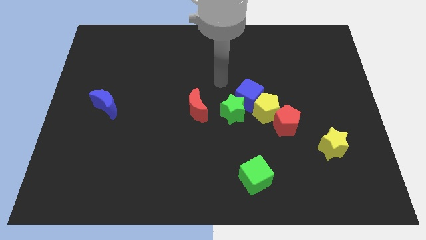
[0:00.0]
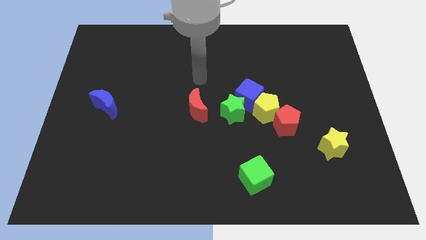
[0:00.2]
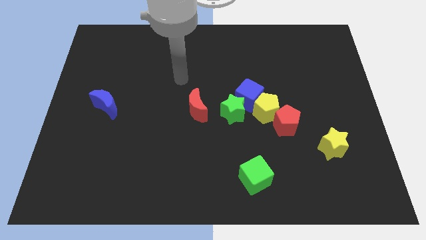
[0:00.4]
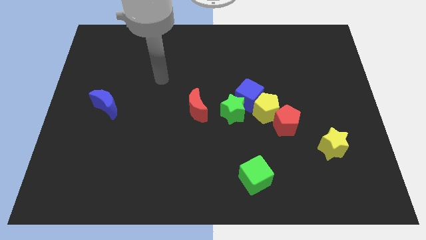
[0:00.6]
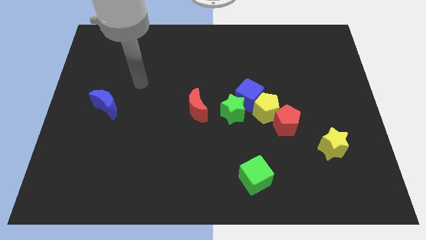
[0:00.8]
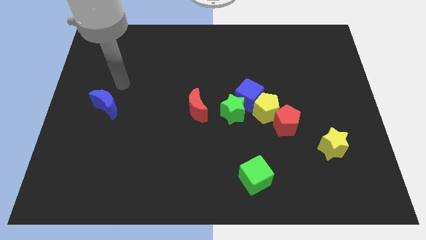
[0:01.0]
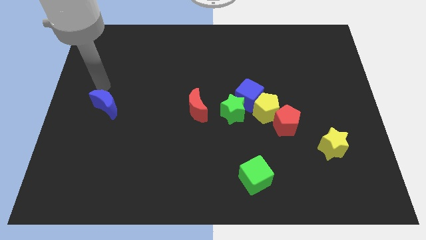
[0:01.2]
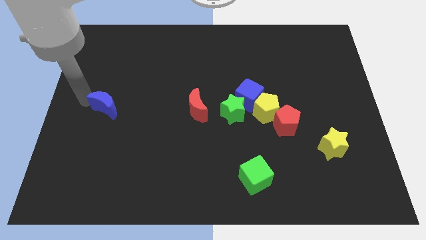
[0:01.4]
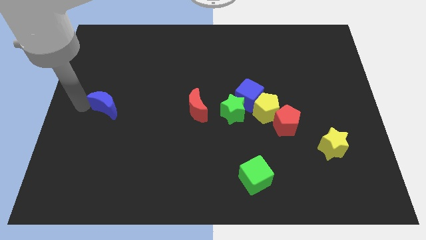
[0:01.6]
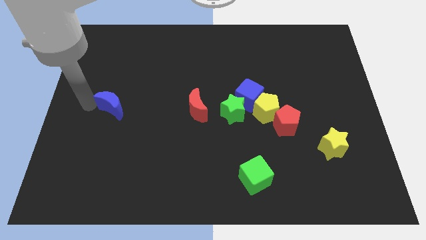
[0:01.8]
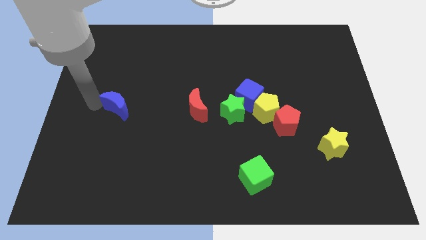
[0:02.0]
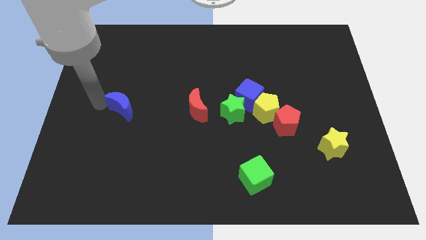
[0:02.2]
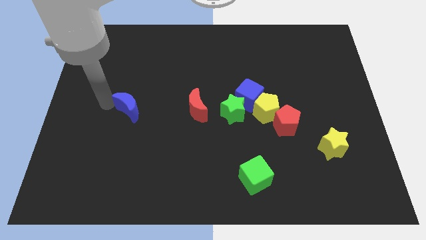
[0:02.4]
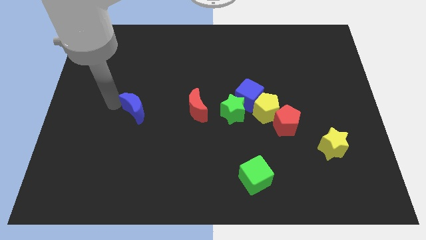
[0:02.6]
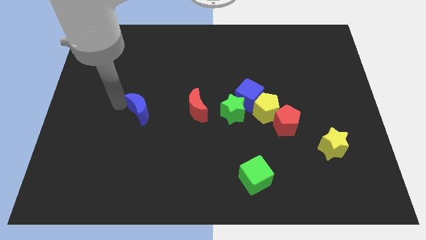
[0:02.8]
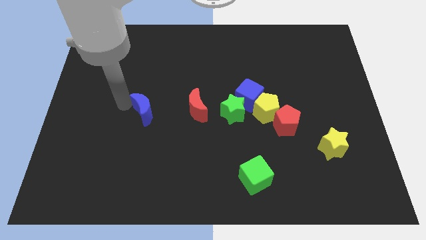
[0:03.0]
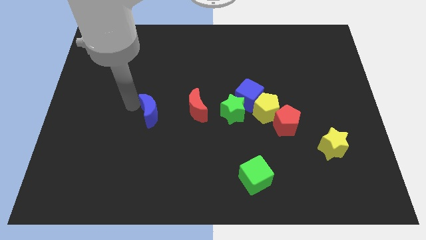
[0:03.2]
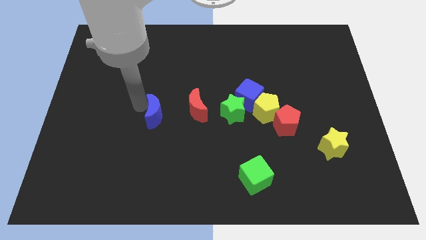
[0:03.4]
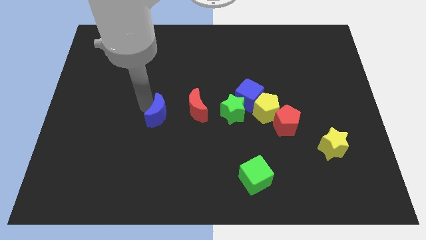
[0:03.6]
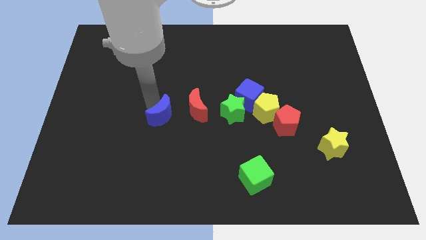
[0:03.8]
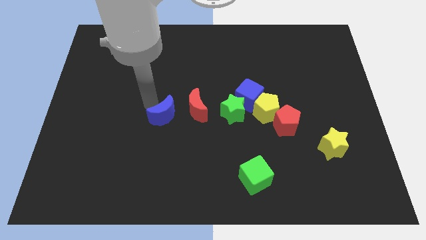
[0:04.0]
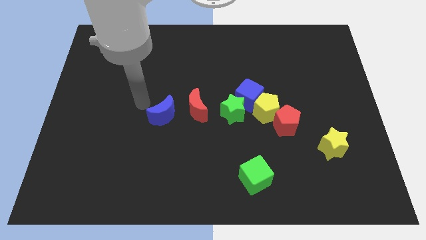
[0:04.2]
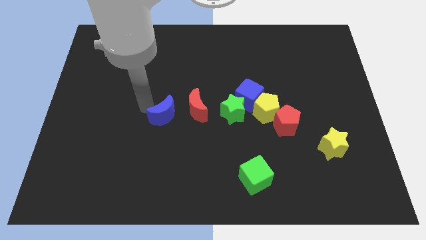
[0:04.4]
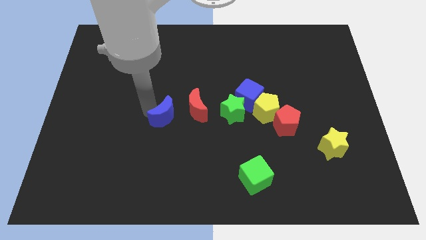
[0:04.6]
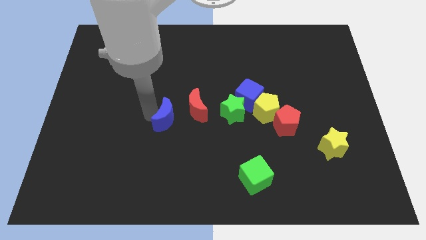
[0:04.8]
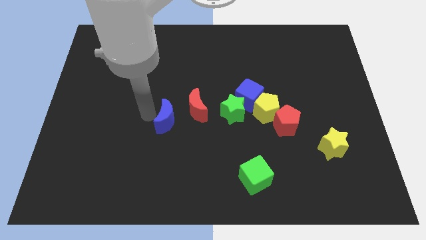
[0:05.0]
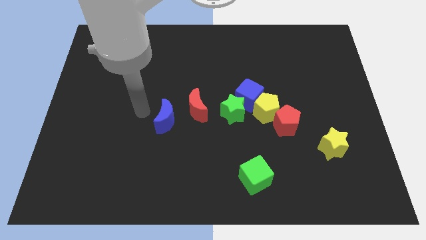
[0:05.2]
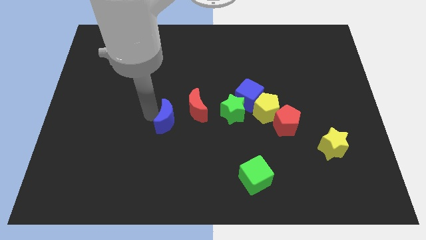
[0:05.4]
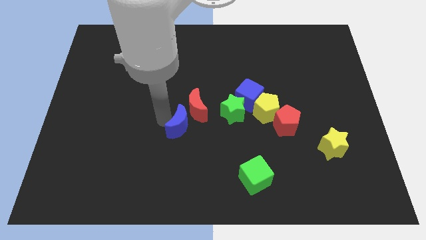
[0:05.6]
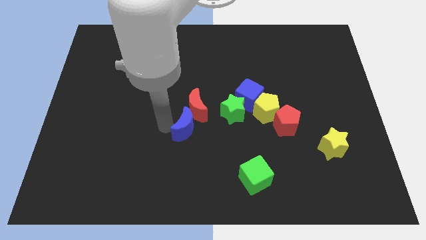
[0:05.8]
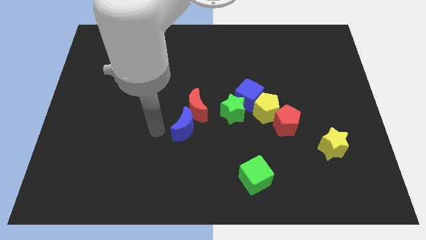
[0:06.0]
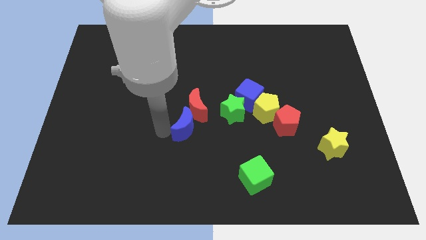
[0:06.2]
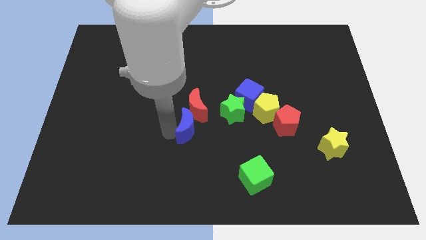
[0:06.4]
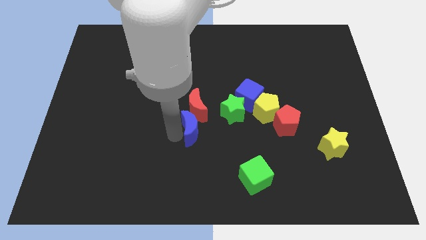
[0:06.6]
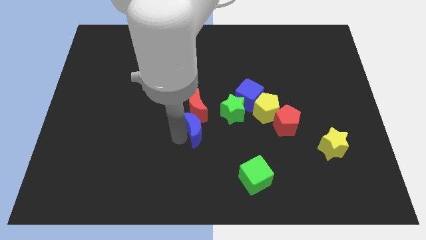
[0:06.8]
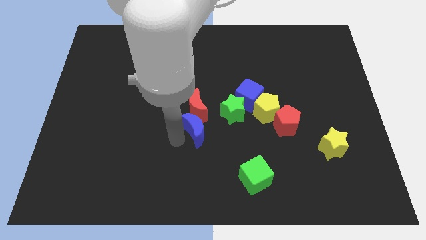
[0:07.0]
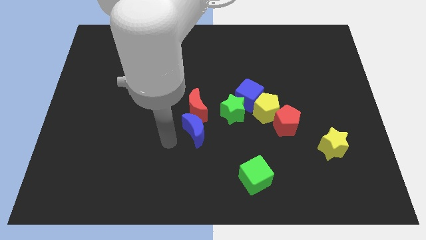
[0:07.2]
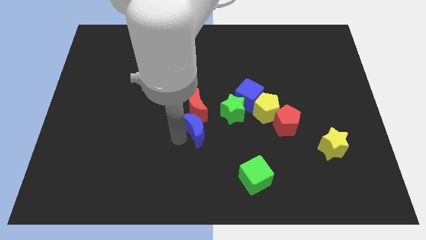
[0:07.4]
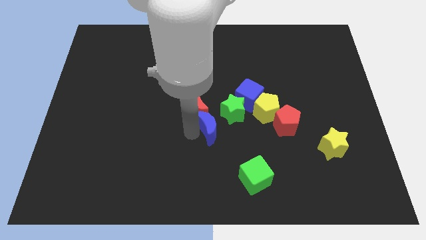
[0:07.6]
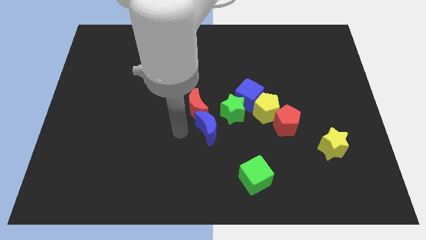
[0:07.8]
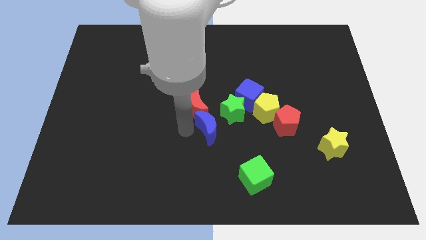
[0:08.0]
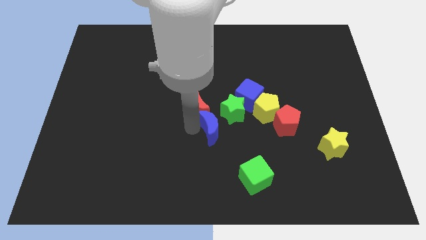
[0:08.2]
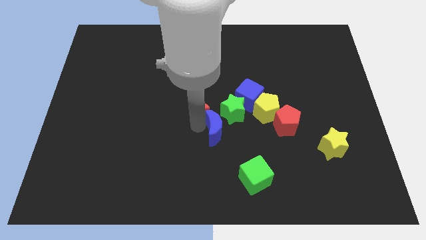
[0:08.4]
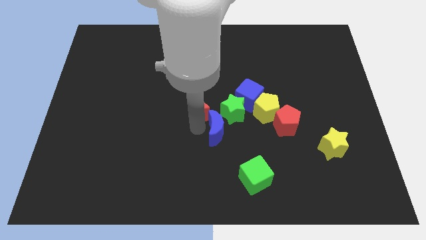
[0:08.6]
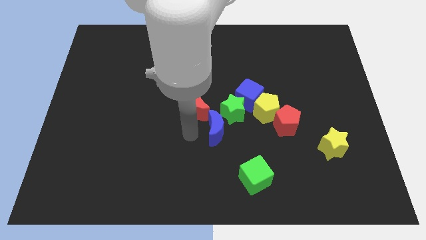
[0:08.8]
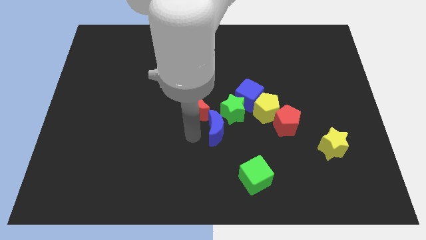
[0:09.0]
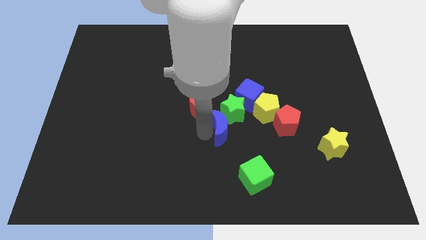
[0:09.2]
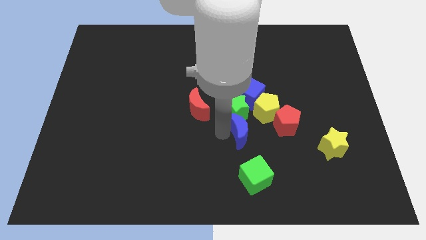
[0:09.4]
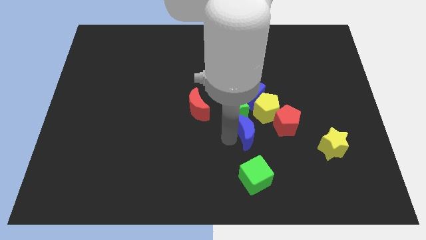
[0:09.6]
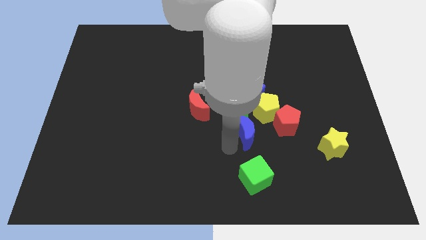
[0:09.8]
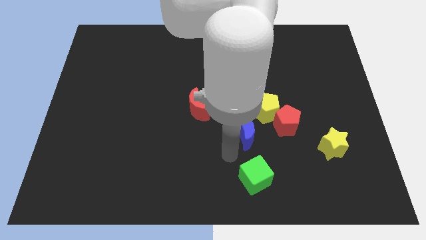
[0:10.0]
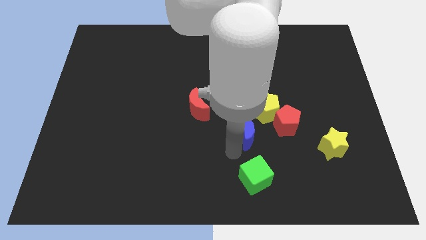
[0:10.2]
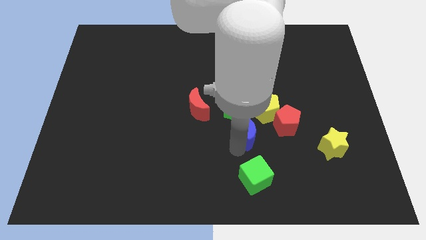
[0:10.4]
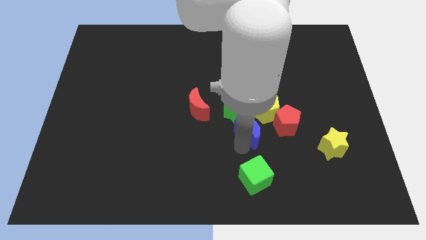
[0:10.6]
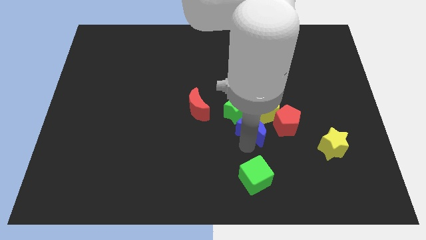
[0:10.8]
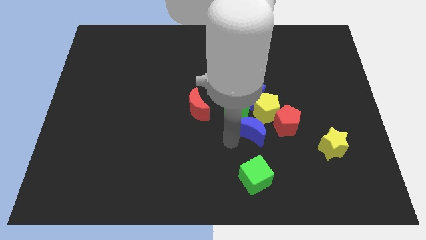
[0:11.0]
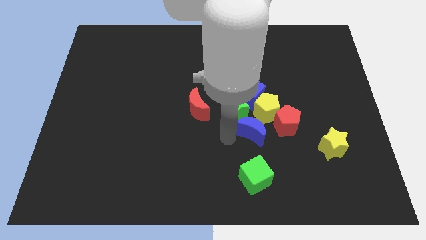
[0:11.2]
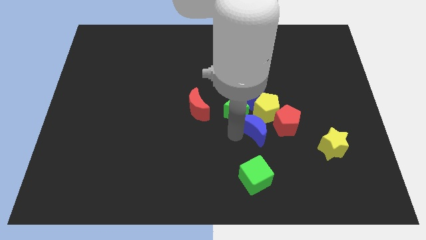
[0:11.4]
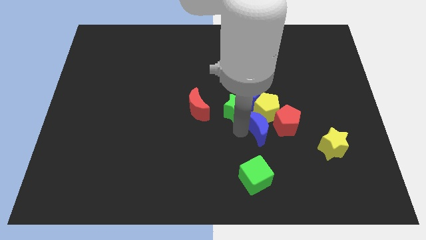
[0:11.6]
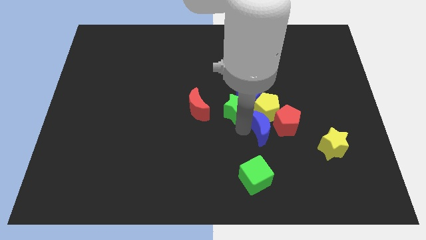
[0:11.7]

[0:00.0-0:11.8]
push the blue moon towards the red pentagon

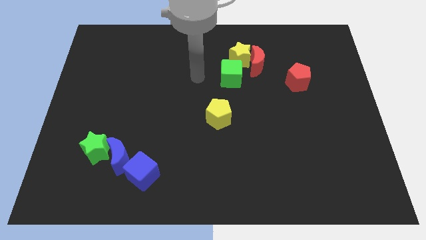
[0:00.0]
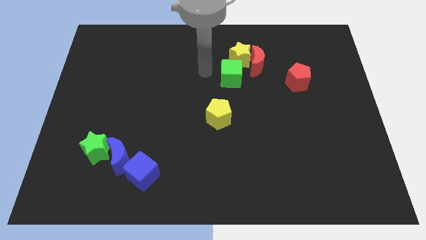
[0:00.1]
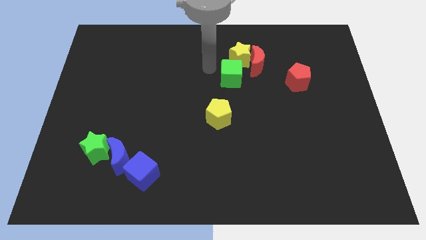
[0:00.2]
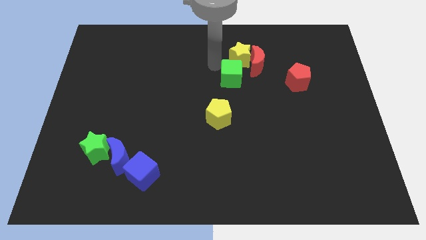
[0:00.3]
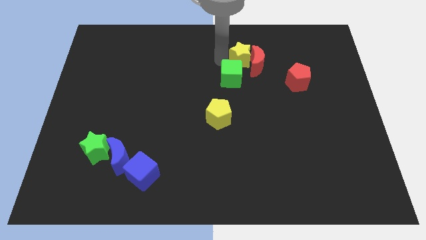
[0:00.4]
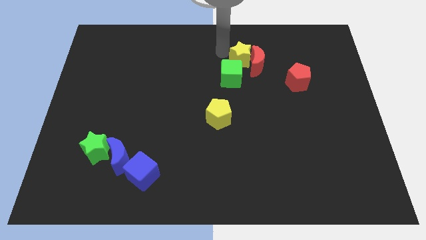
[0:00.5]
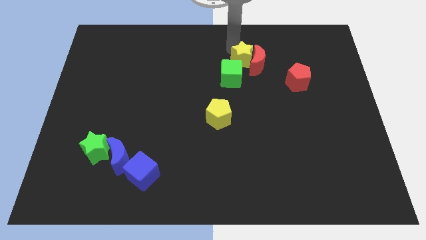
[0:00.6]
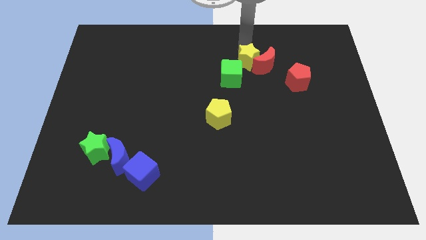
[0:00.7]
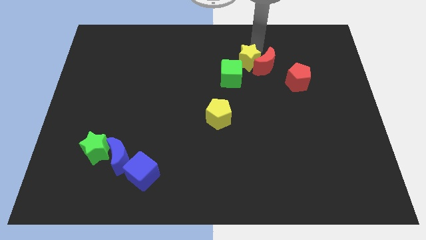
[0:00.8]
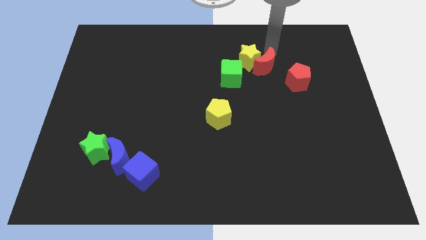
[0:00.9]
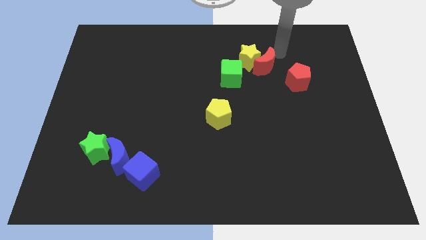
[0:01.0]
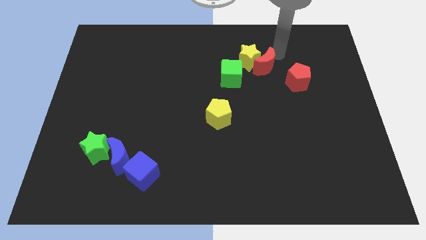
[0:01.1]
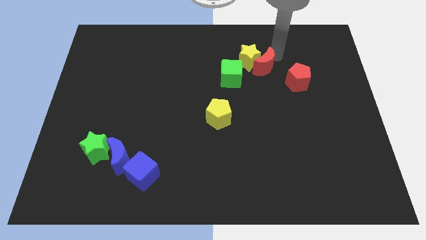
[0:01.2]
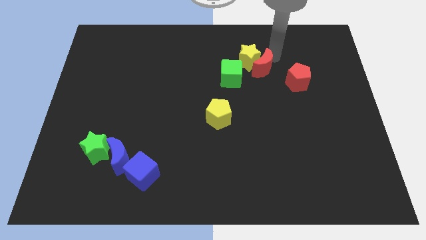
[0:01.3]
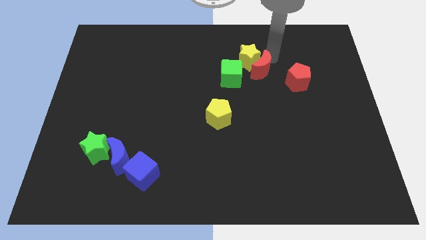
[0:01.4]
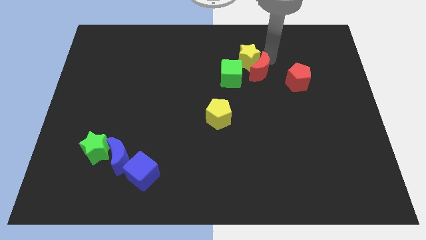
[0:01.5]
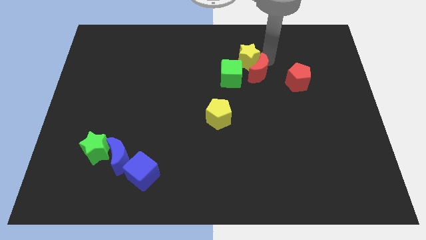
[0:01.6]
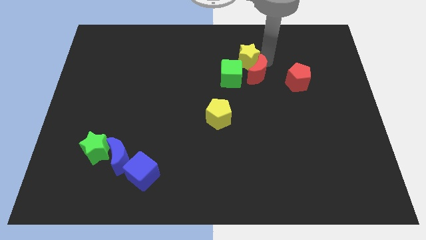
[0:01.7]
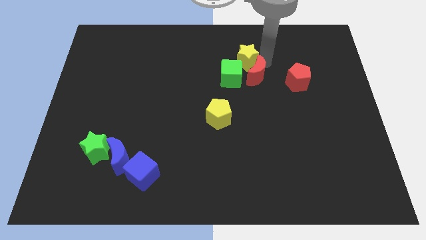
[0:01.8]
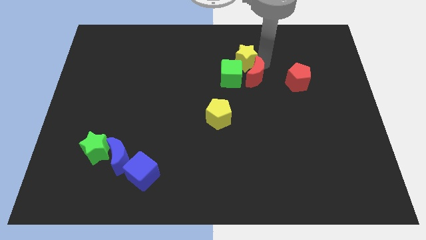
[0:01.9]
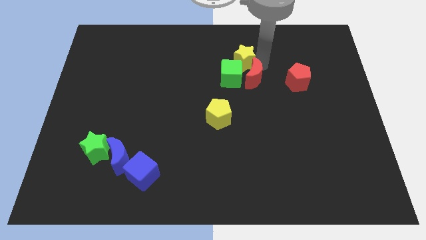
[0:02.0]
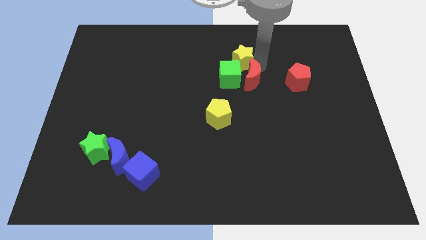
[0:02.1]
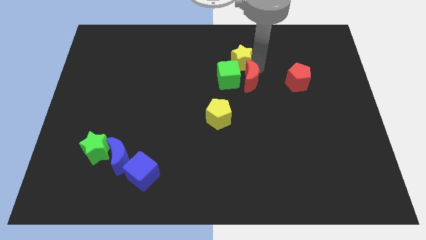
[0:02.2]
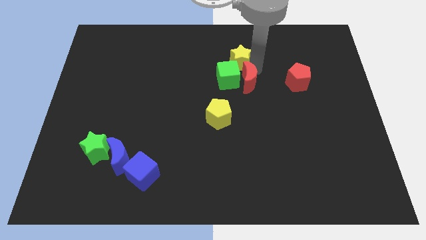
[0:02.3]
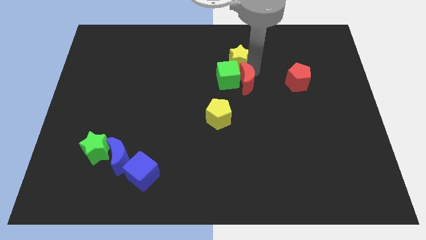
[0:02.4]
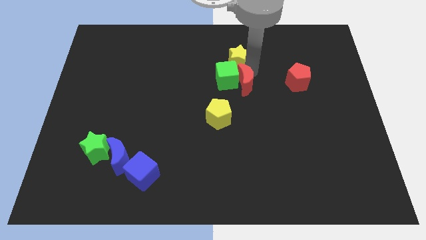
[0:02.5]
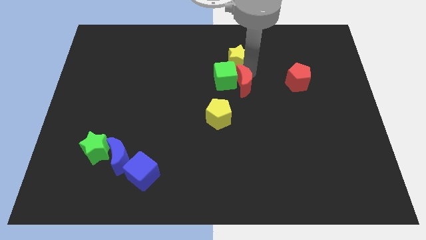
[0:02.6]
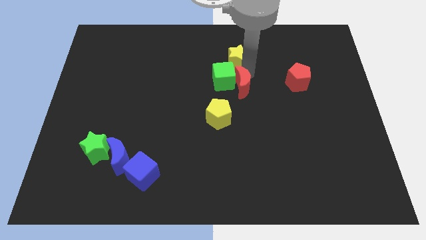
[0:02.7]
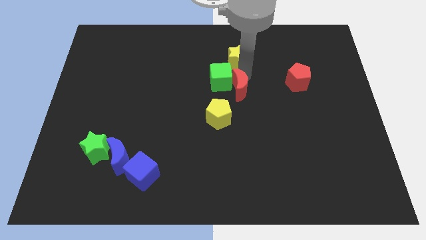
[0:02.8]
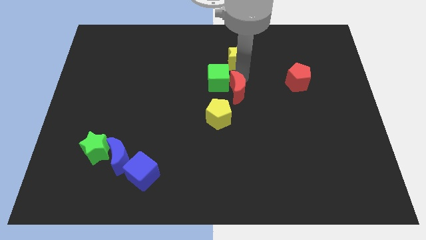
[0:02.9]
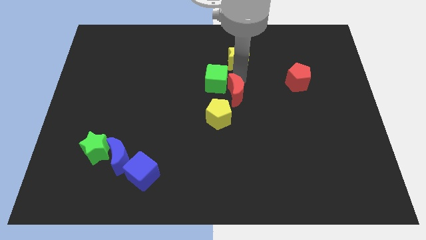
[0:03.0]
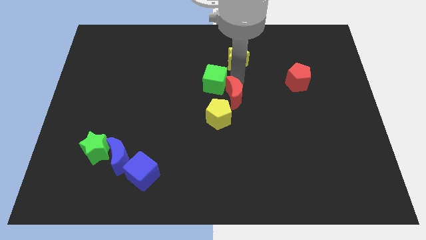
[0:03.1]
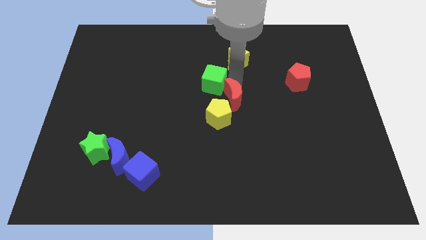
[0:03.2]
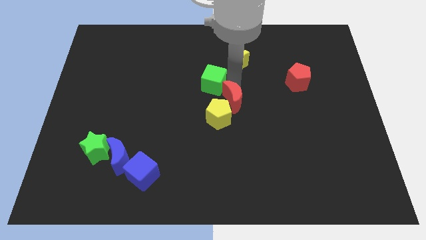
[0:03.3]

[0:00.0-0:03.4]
slide the red moon close to the yellow pentagon
